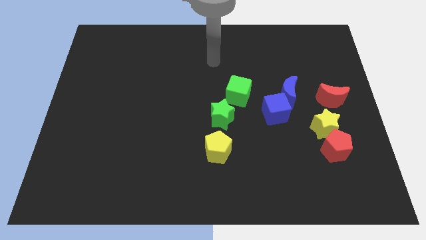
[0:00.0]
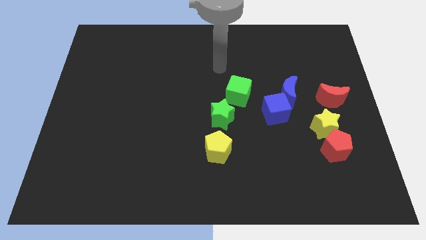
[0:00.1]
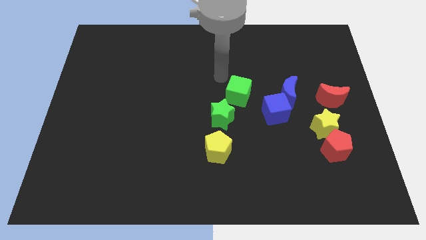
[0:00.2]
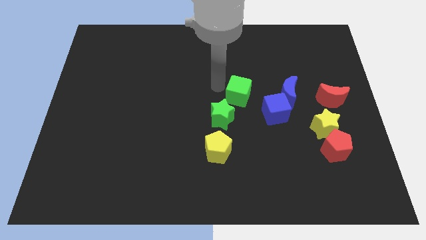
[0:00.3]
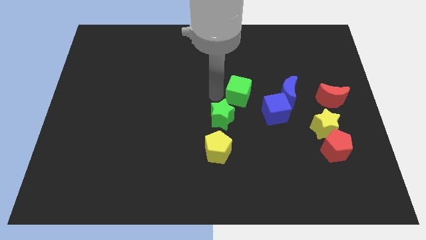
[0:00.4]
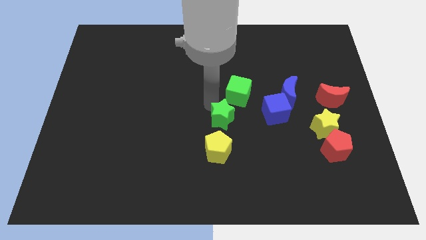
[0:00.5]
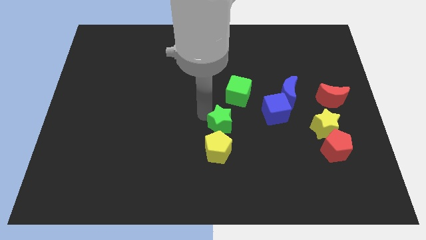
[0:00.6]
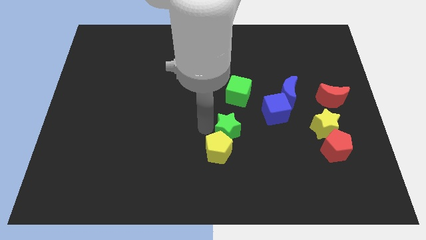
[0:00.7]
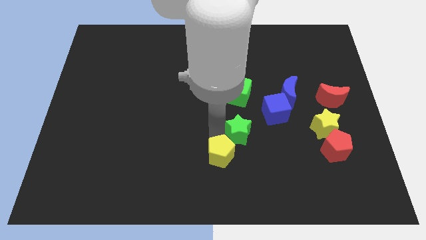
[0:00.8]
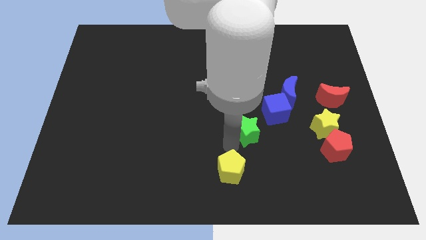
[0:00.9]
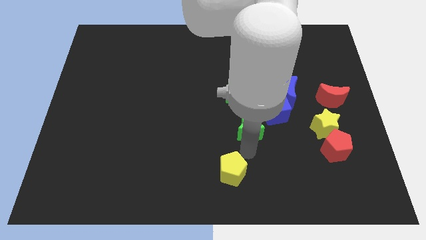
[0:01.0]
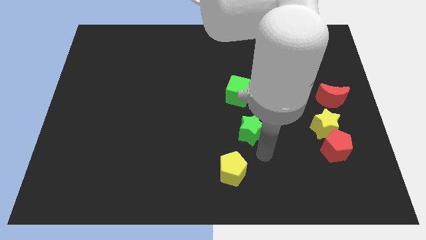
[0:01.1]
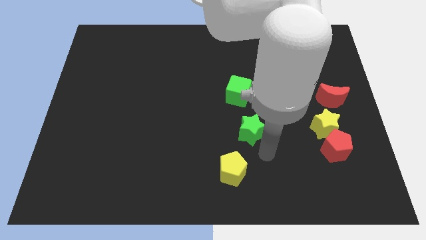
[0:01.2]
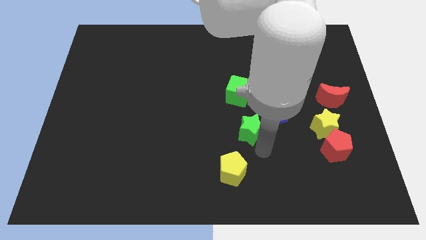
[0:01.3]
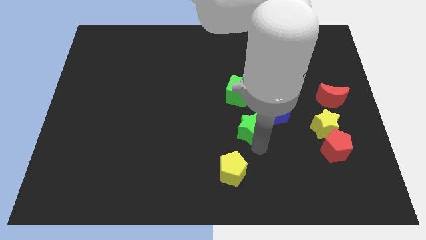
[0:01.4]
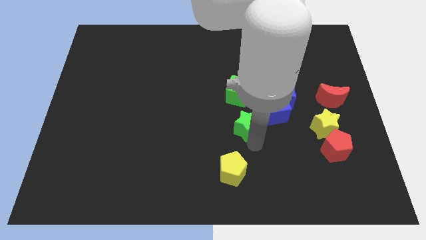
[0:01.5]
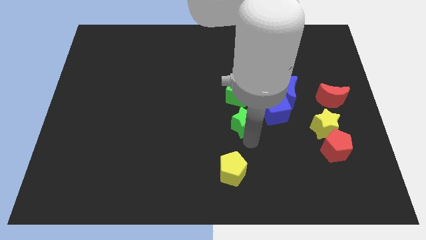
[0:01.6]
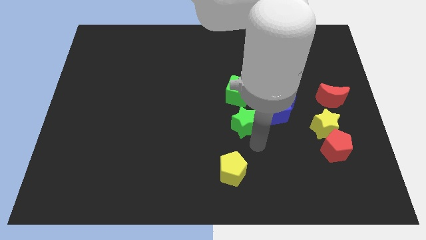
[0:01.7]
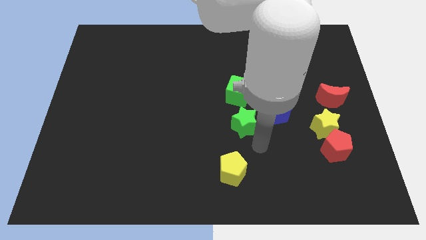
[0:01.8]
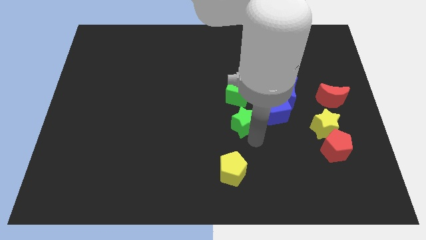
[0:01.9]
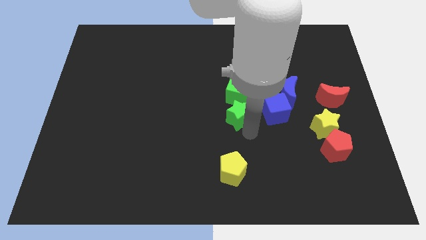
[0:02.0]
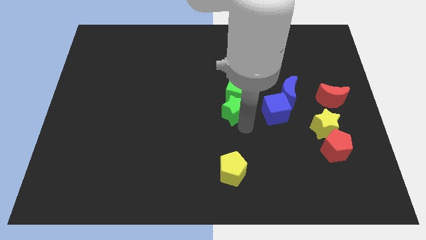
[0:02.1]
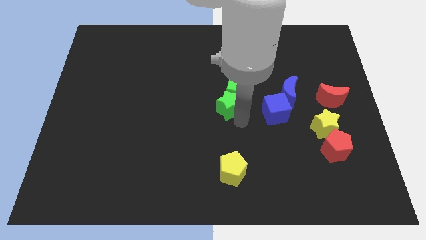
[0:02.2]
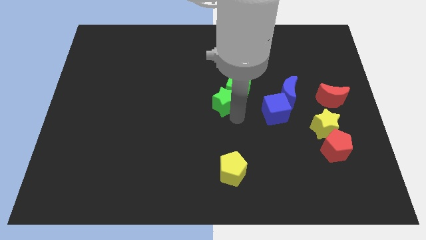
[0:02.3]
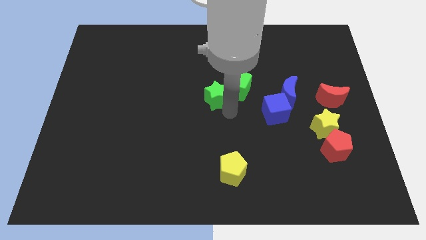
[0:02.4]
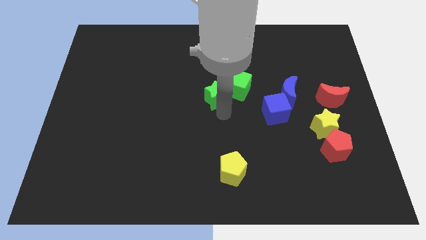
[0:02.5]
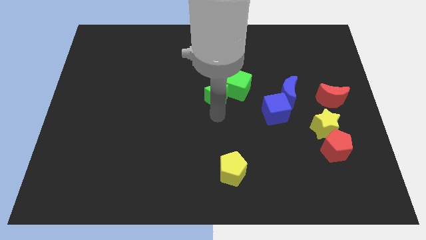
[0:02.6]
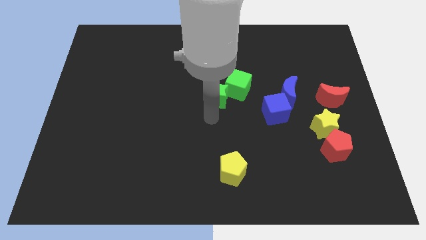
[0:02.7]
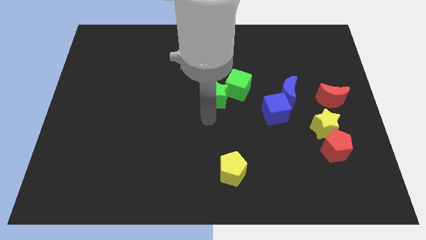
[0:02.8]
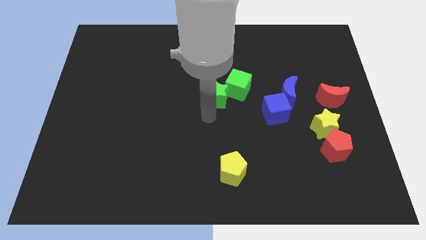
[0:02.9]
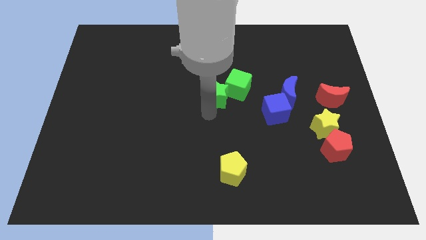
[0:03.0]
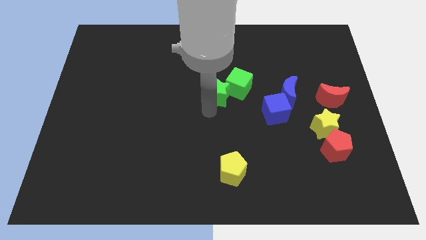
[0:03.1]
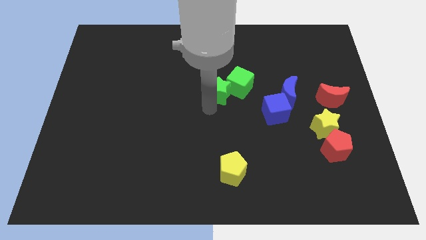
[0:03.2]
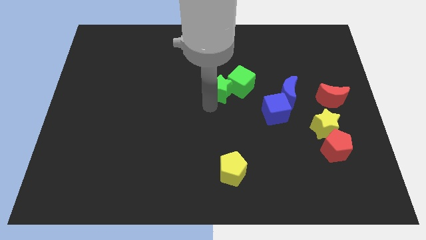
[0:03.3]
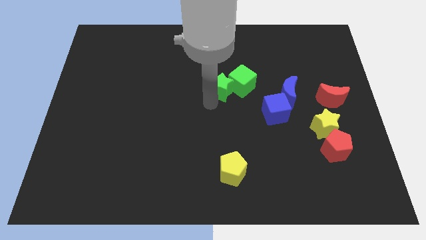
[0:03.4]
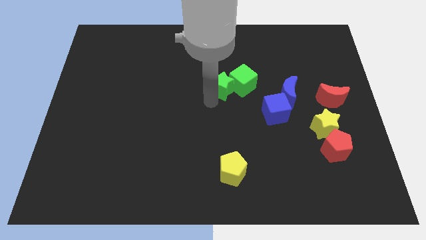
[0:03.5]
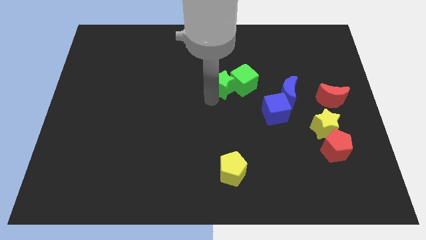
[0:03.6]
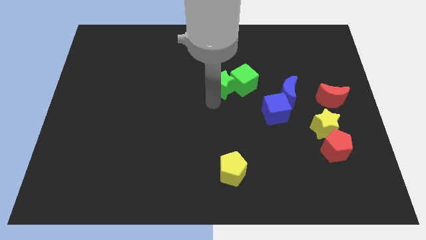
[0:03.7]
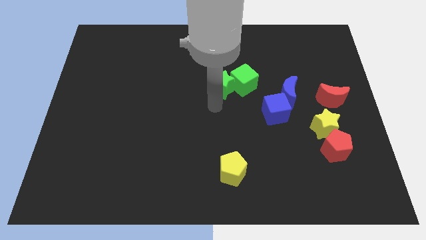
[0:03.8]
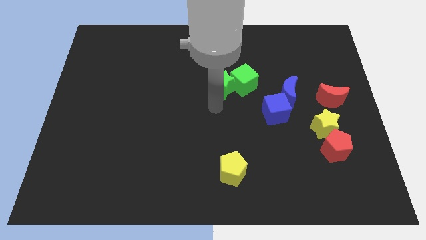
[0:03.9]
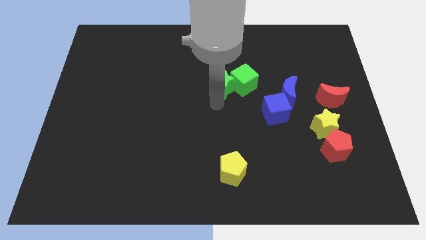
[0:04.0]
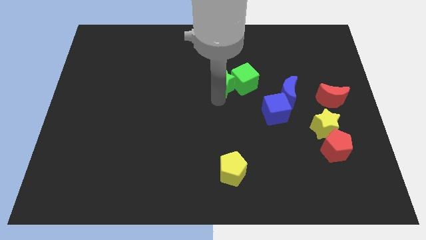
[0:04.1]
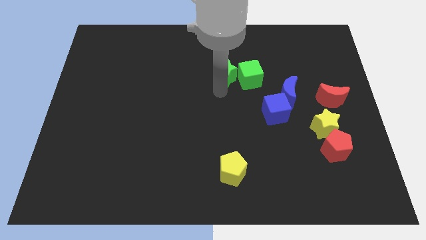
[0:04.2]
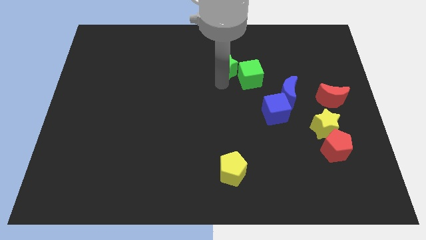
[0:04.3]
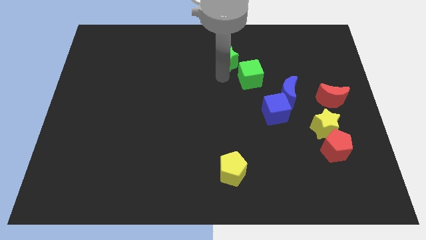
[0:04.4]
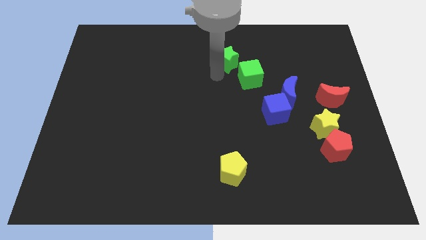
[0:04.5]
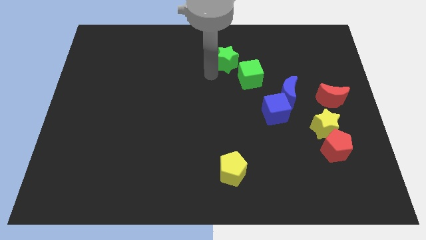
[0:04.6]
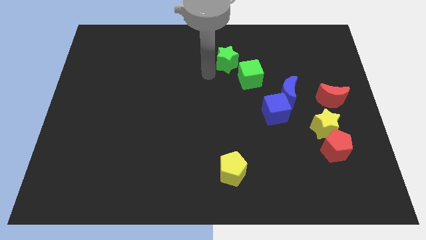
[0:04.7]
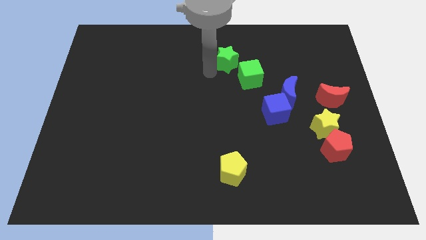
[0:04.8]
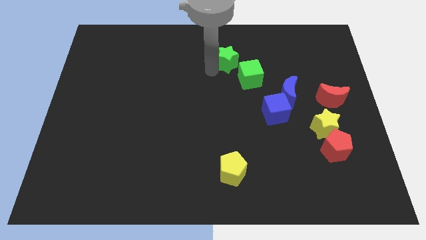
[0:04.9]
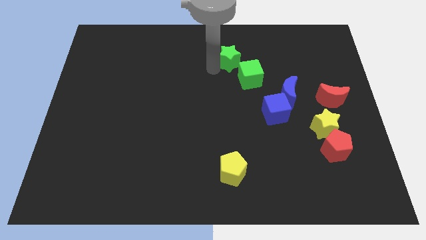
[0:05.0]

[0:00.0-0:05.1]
put the green star above the green cube

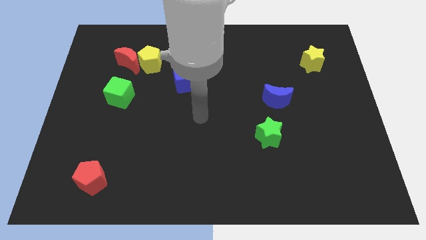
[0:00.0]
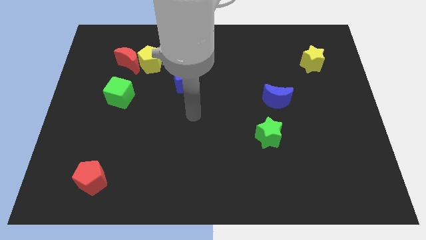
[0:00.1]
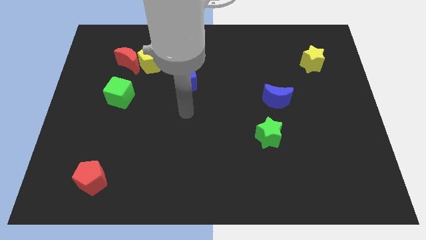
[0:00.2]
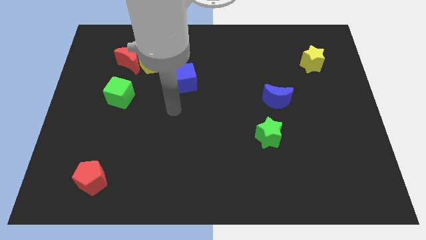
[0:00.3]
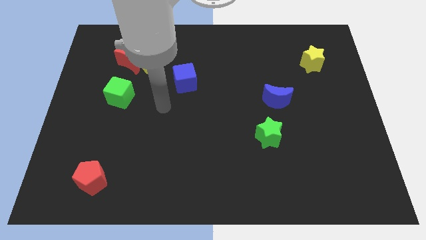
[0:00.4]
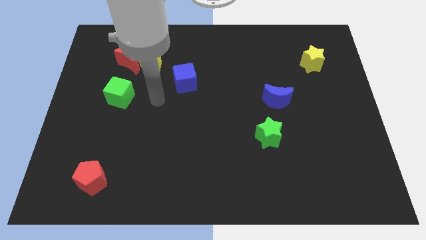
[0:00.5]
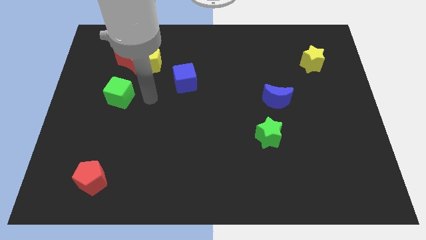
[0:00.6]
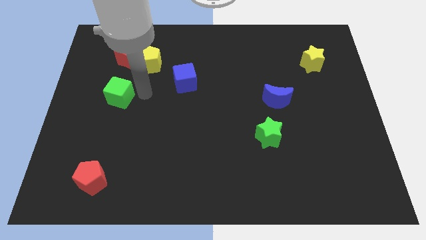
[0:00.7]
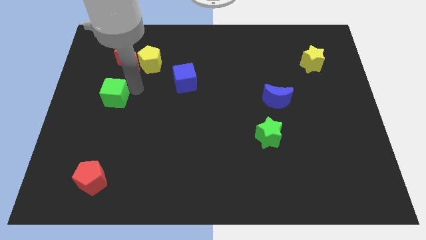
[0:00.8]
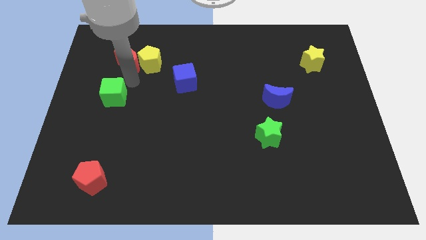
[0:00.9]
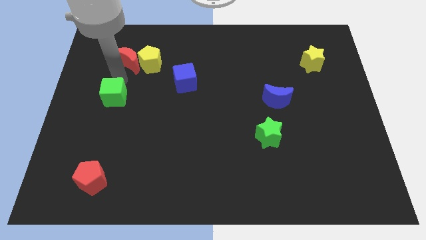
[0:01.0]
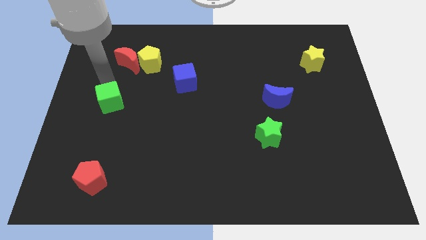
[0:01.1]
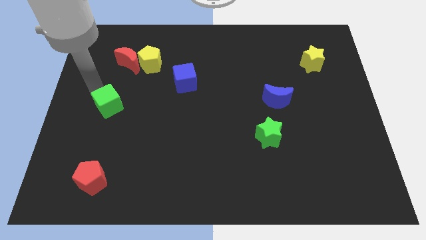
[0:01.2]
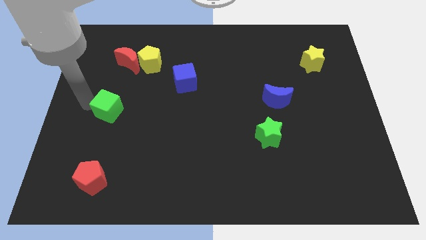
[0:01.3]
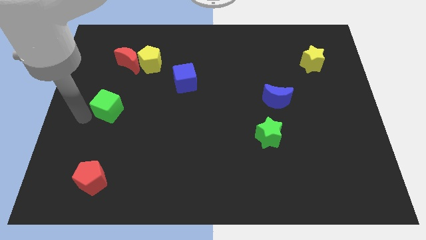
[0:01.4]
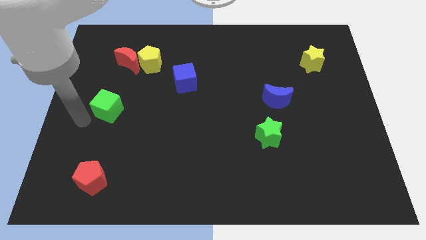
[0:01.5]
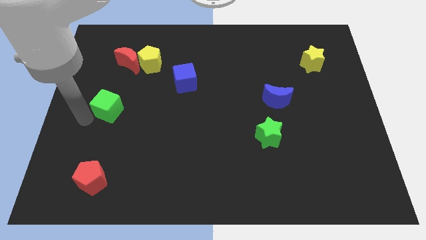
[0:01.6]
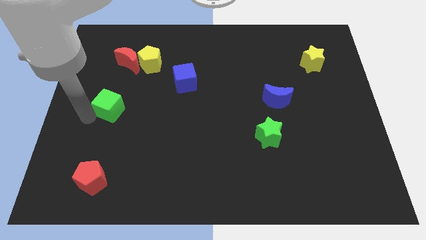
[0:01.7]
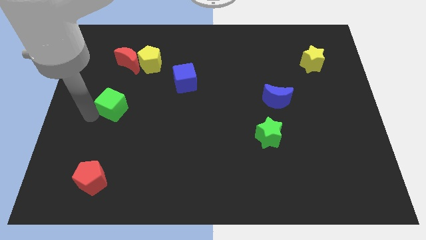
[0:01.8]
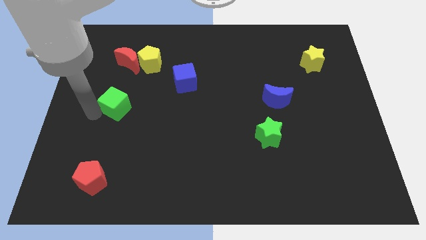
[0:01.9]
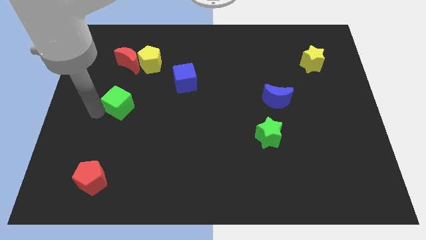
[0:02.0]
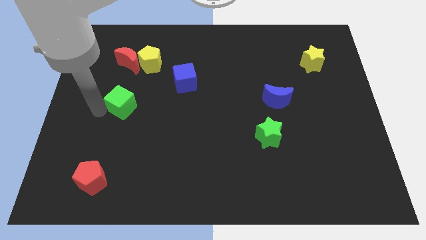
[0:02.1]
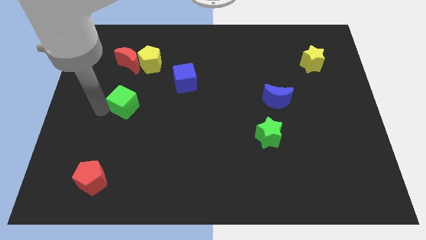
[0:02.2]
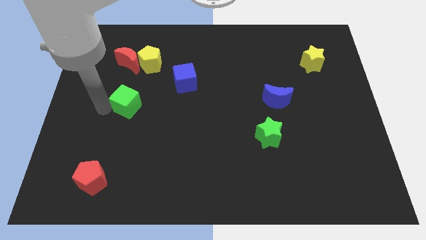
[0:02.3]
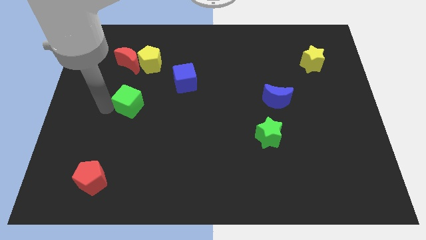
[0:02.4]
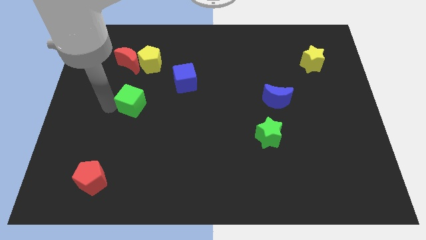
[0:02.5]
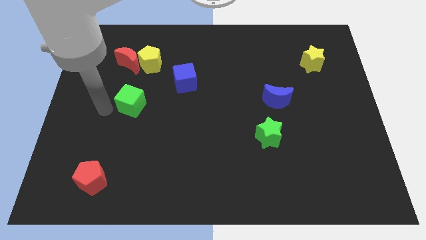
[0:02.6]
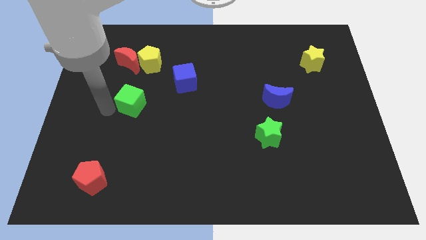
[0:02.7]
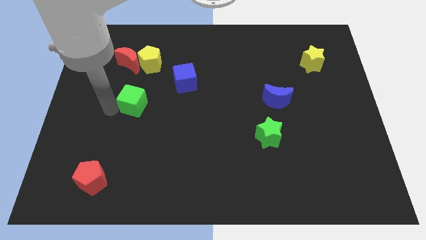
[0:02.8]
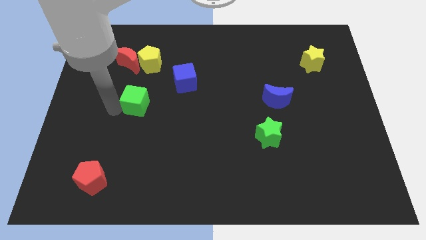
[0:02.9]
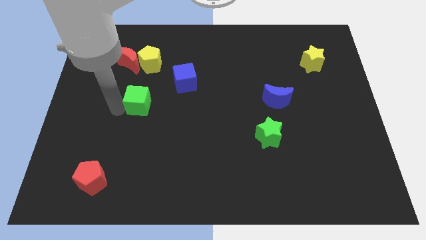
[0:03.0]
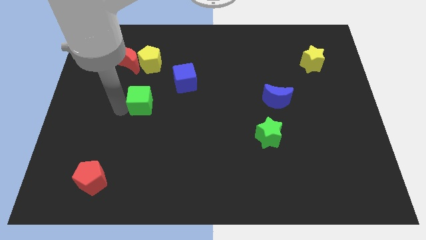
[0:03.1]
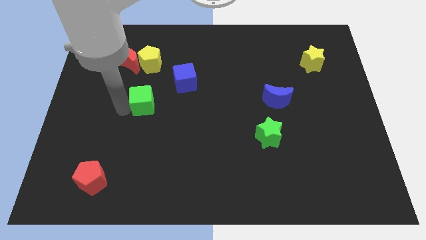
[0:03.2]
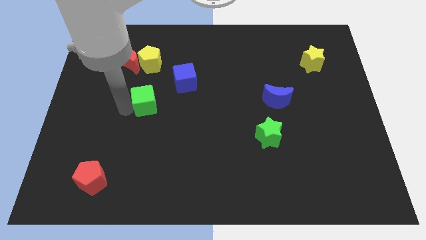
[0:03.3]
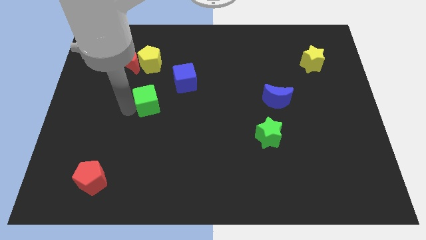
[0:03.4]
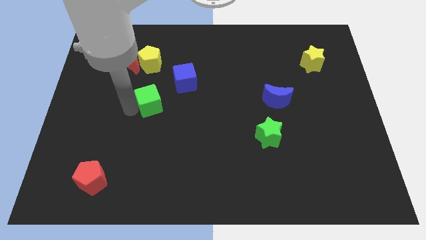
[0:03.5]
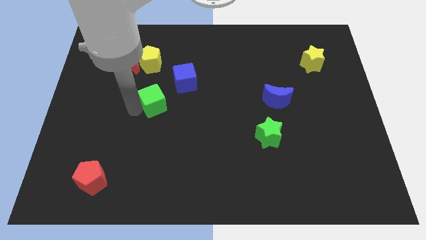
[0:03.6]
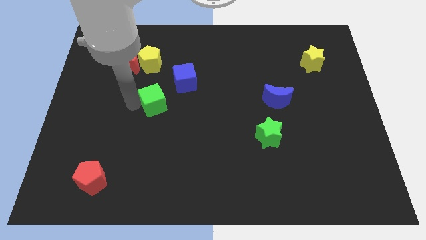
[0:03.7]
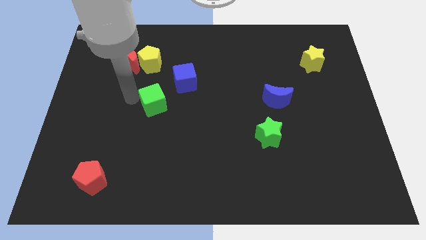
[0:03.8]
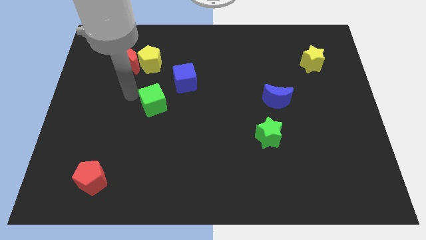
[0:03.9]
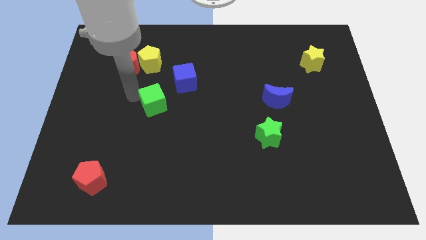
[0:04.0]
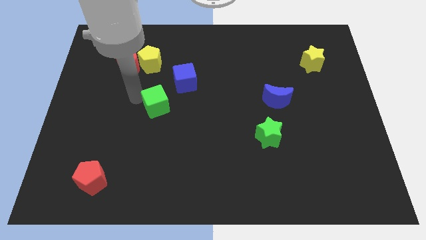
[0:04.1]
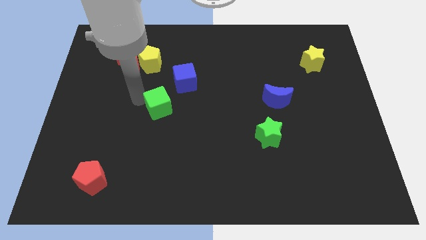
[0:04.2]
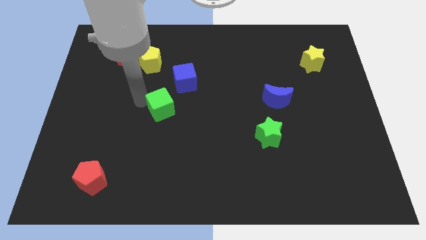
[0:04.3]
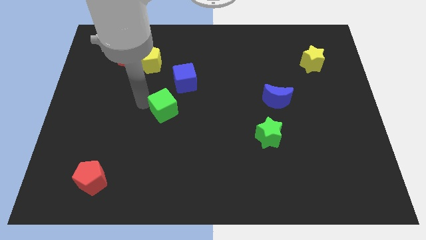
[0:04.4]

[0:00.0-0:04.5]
move the green cube to the bottom side of the blue cube
